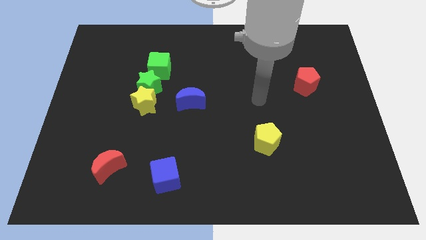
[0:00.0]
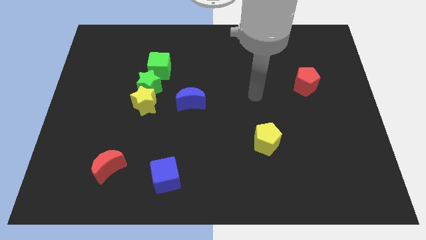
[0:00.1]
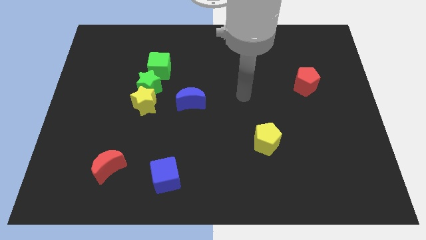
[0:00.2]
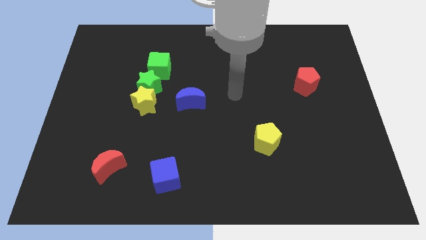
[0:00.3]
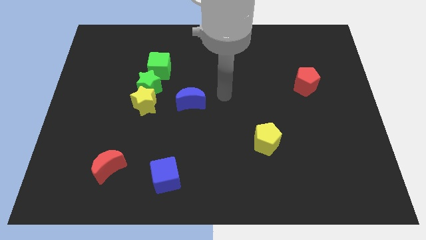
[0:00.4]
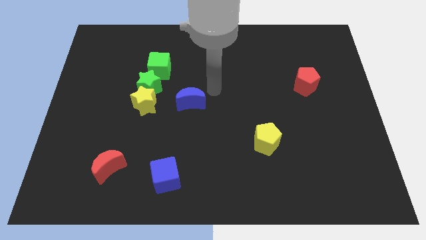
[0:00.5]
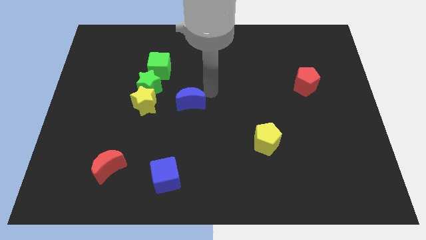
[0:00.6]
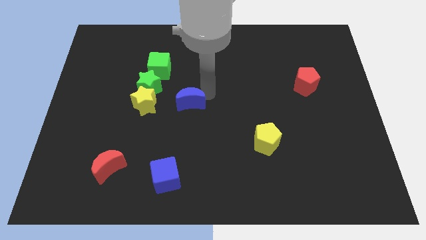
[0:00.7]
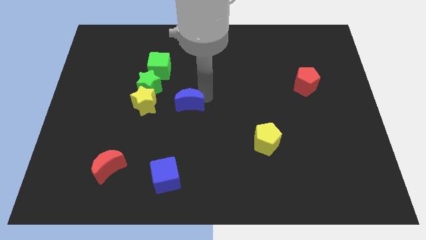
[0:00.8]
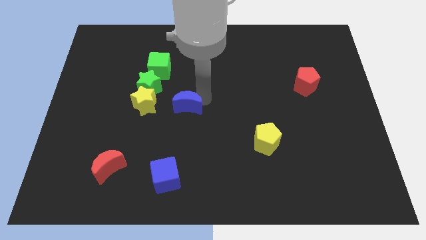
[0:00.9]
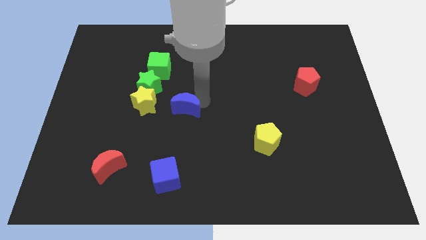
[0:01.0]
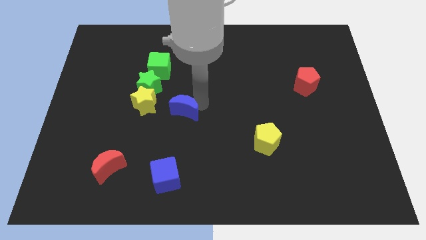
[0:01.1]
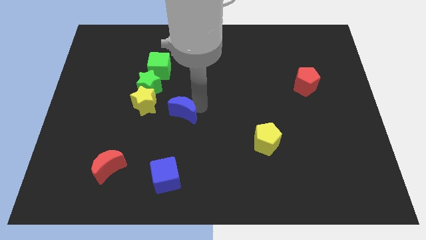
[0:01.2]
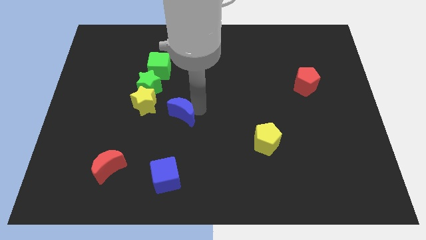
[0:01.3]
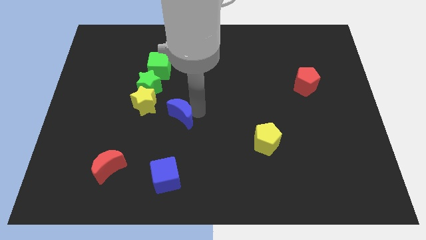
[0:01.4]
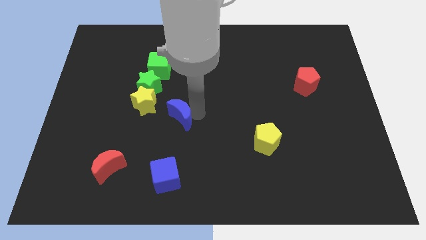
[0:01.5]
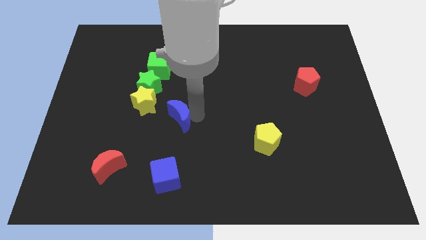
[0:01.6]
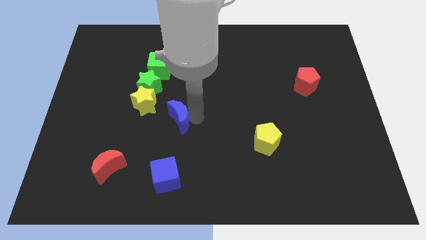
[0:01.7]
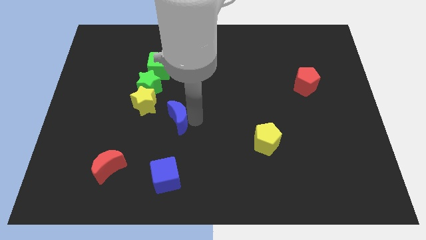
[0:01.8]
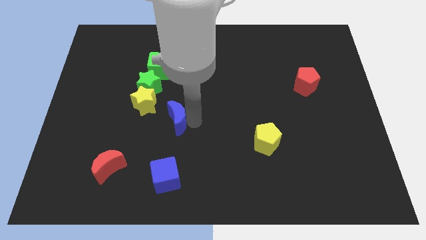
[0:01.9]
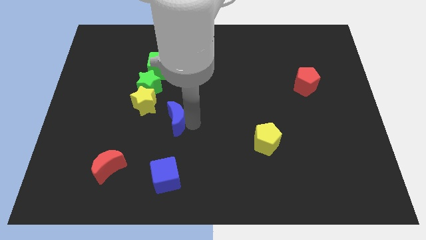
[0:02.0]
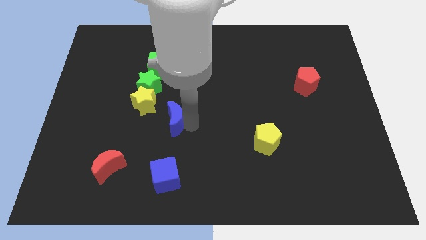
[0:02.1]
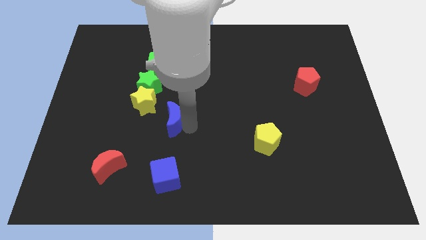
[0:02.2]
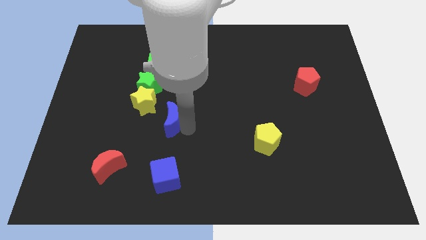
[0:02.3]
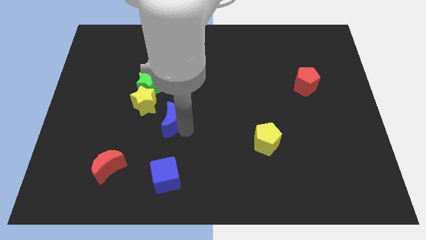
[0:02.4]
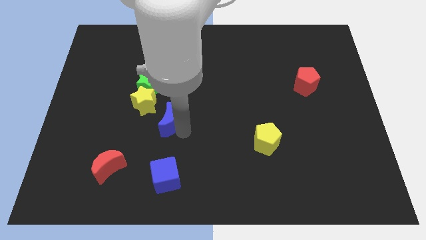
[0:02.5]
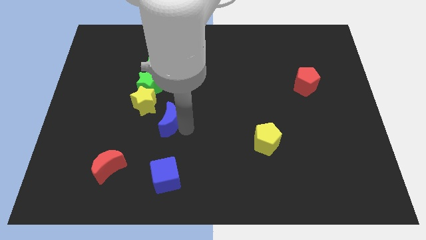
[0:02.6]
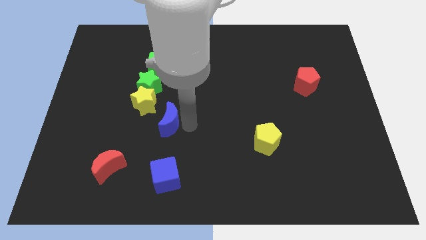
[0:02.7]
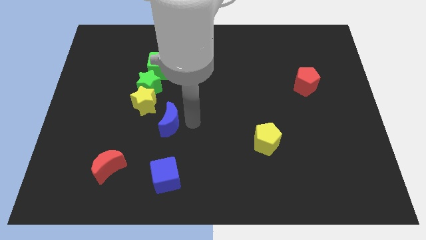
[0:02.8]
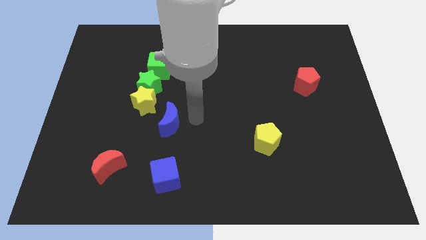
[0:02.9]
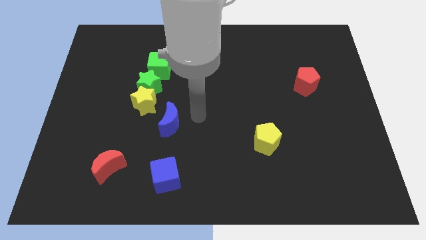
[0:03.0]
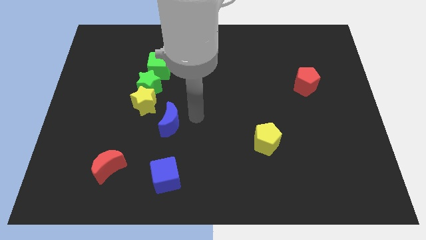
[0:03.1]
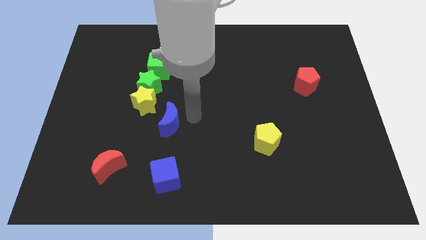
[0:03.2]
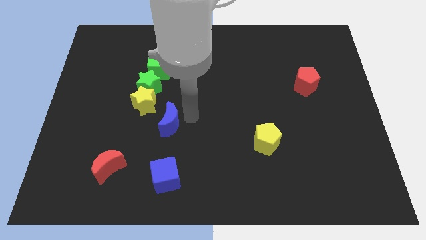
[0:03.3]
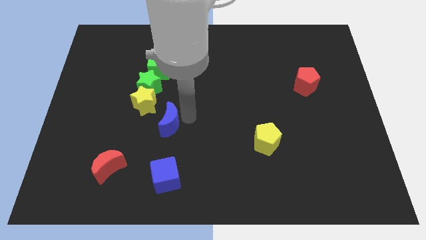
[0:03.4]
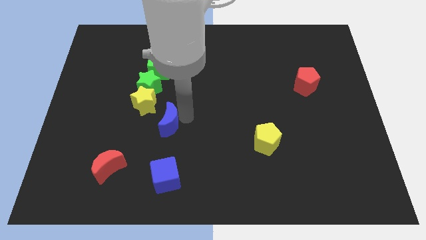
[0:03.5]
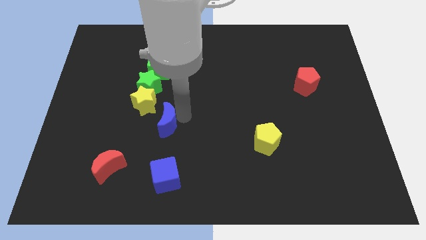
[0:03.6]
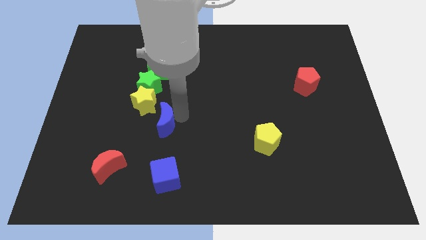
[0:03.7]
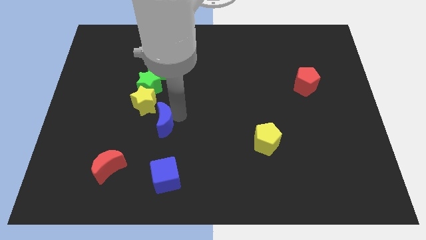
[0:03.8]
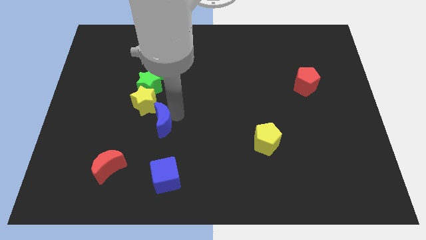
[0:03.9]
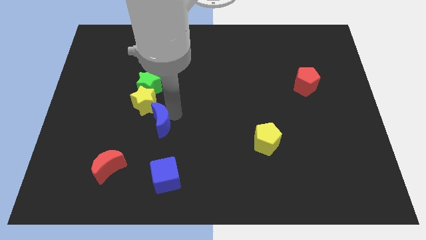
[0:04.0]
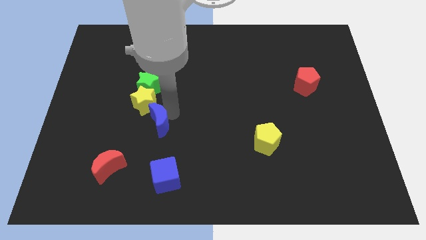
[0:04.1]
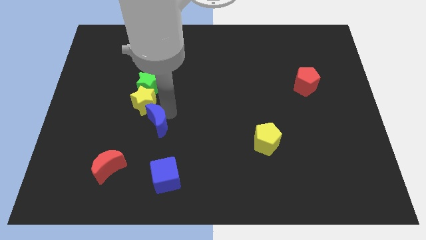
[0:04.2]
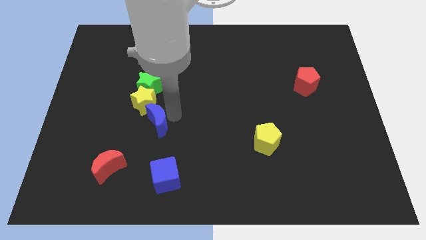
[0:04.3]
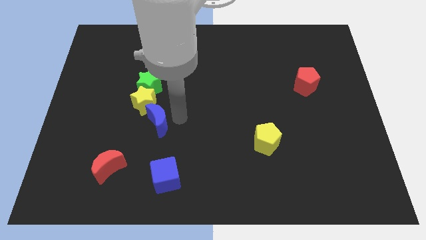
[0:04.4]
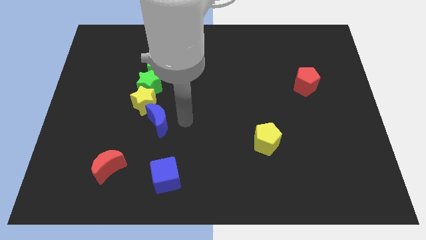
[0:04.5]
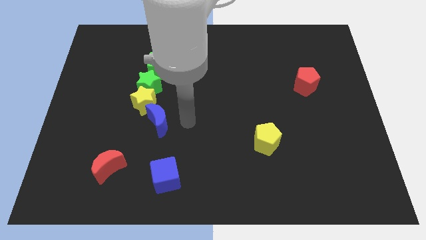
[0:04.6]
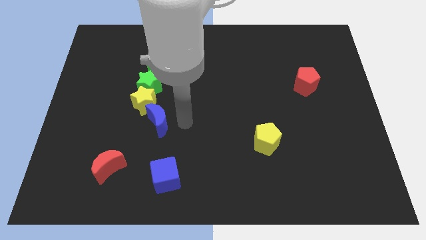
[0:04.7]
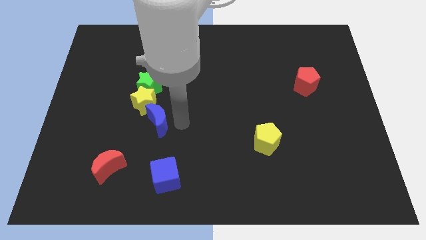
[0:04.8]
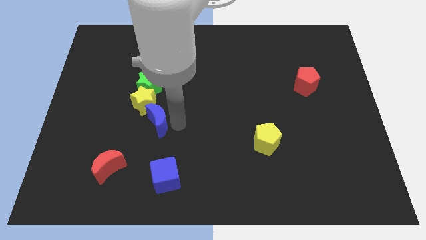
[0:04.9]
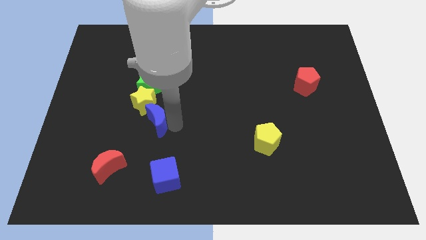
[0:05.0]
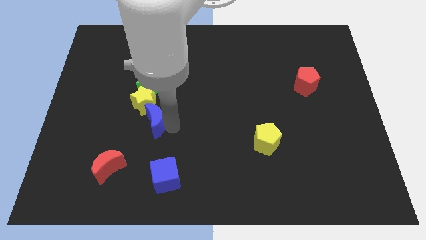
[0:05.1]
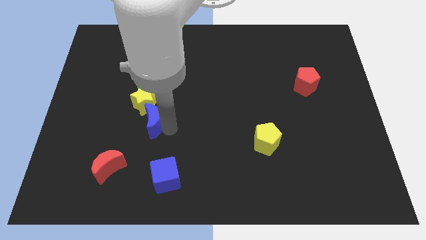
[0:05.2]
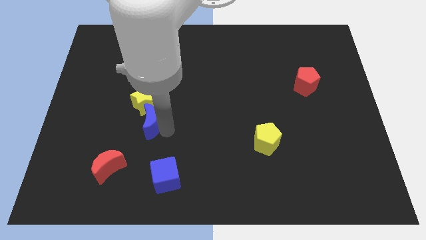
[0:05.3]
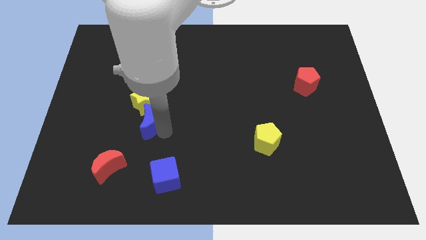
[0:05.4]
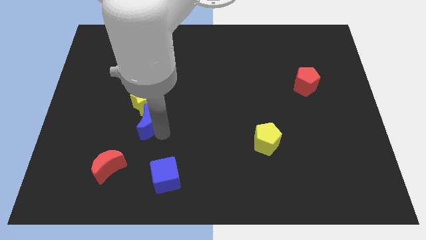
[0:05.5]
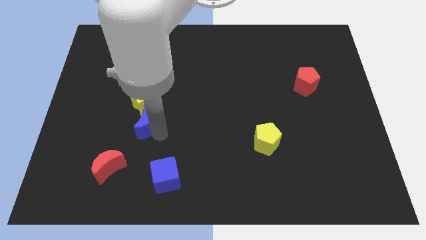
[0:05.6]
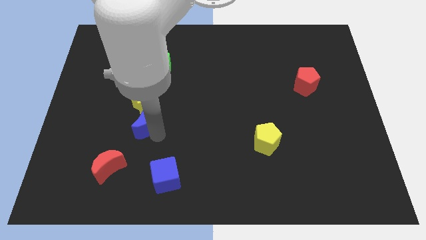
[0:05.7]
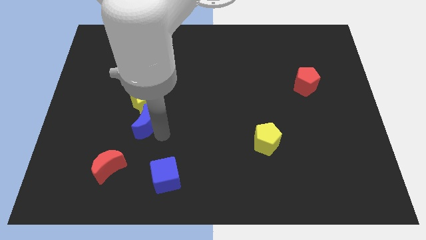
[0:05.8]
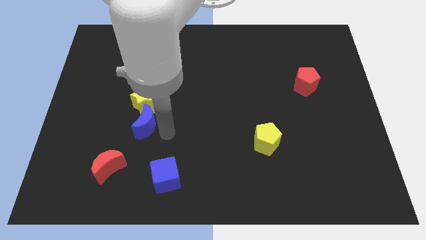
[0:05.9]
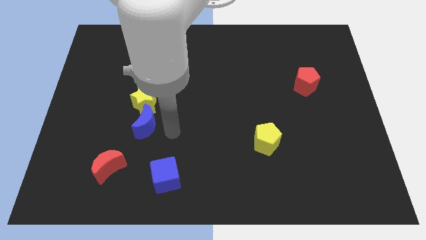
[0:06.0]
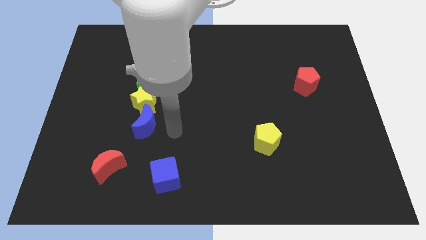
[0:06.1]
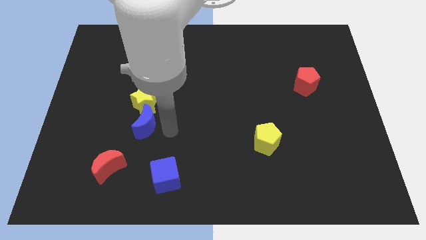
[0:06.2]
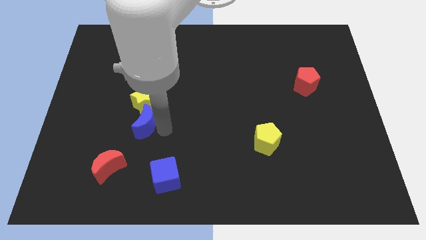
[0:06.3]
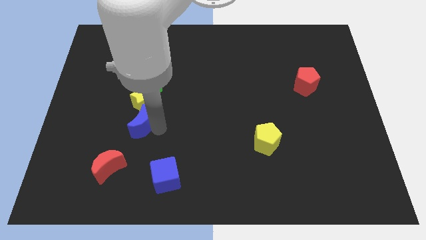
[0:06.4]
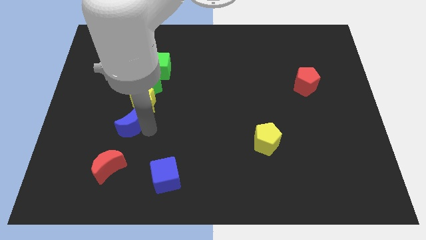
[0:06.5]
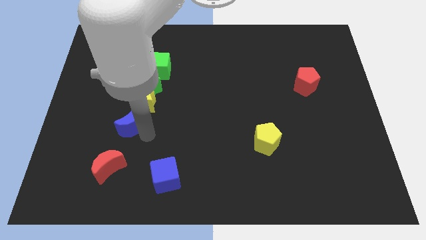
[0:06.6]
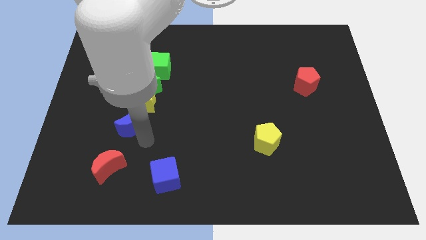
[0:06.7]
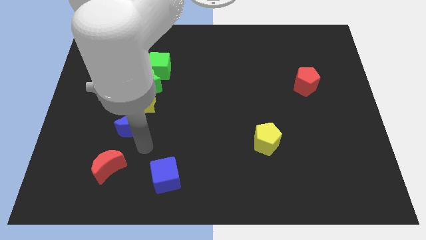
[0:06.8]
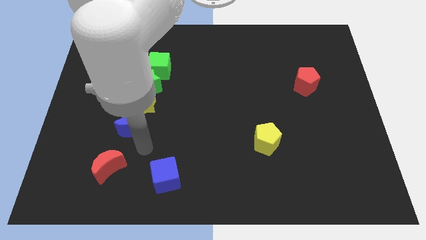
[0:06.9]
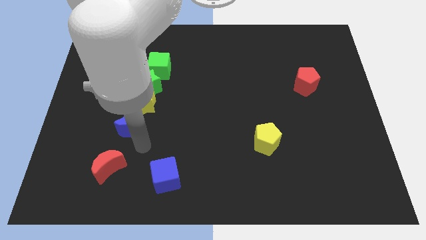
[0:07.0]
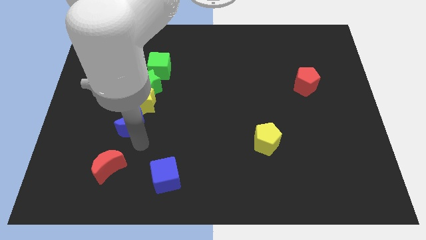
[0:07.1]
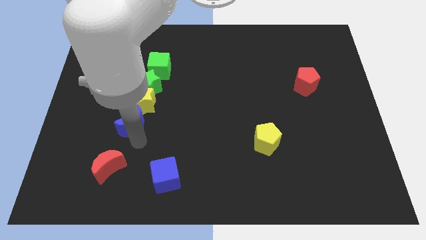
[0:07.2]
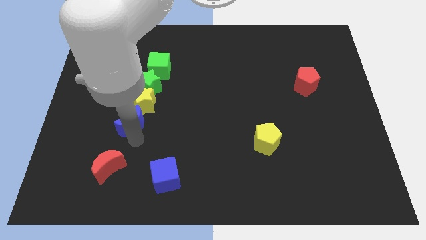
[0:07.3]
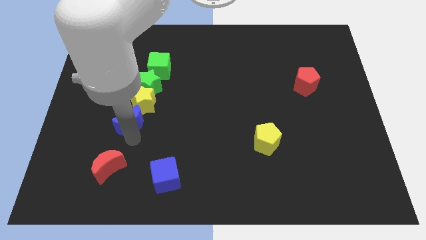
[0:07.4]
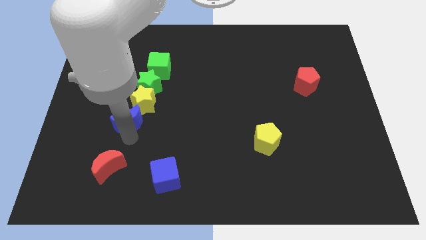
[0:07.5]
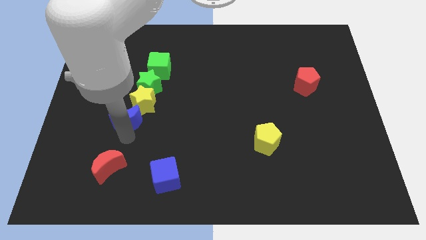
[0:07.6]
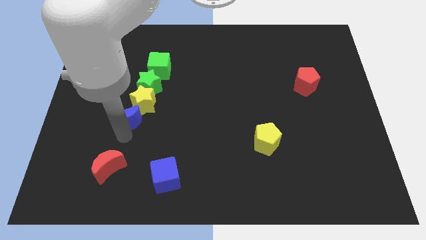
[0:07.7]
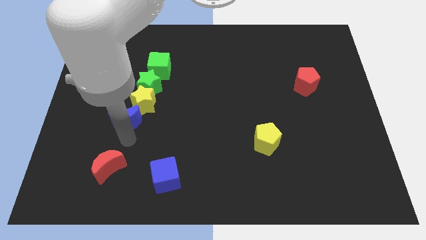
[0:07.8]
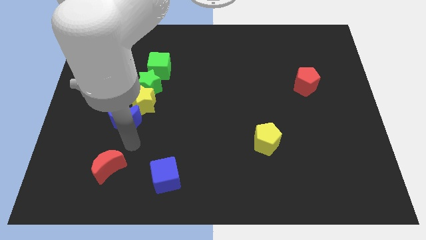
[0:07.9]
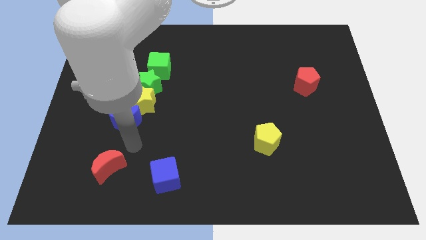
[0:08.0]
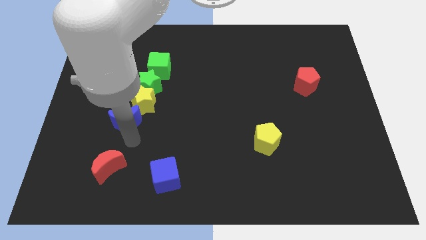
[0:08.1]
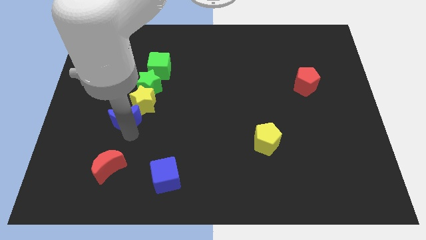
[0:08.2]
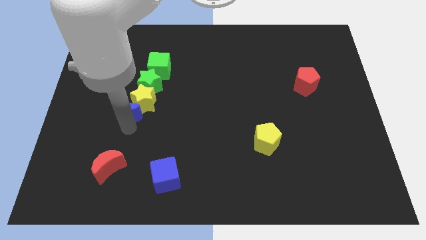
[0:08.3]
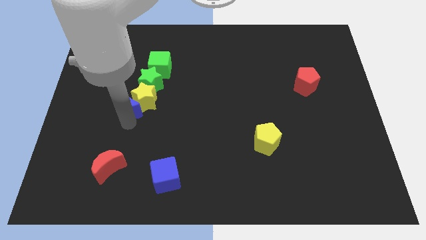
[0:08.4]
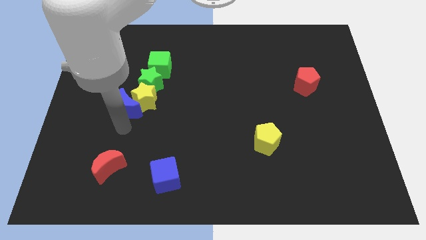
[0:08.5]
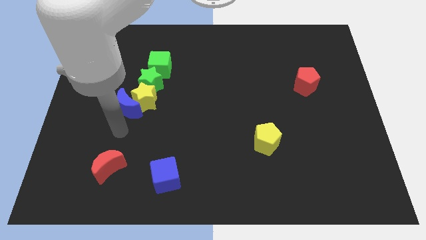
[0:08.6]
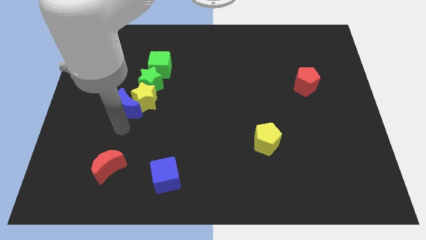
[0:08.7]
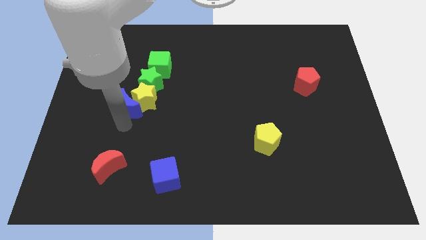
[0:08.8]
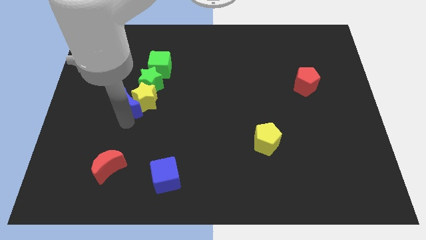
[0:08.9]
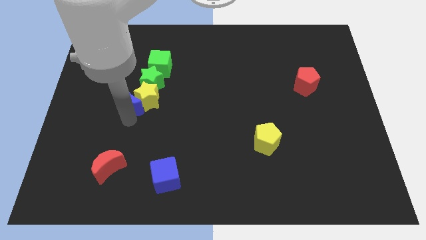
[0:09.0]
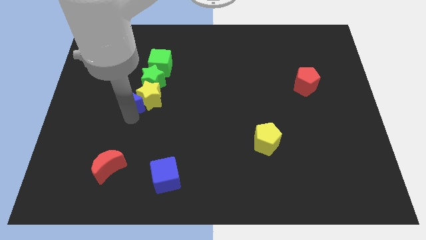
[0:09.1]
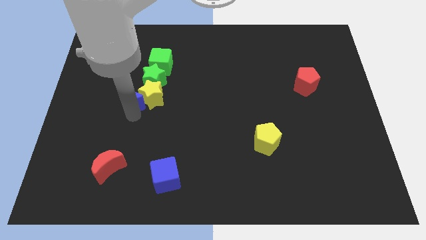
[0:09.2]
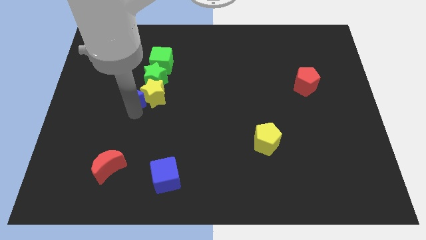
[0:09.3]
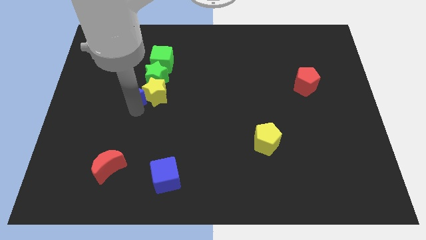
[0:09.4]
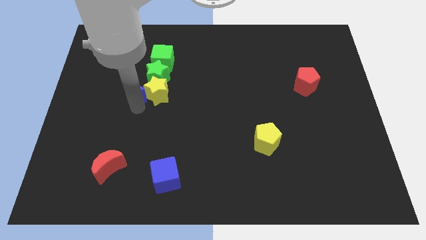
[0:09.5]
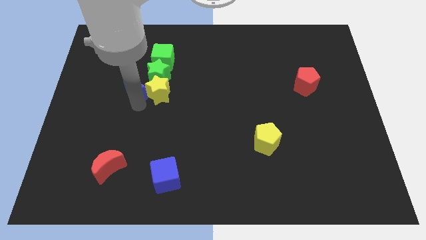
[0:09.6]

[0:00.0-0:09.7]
move the blue moon diagonally down and to the left of the green cube
